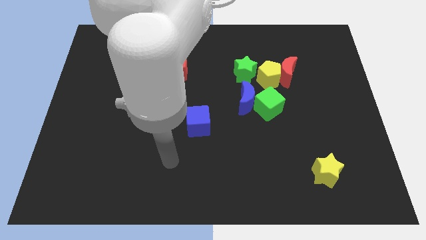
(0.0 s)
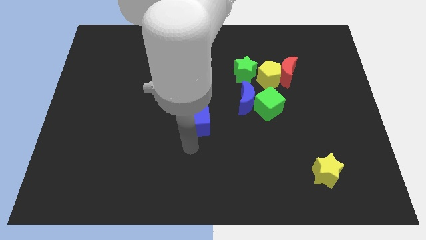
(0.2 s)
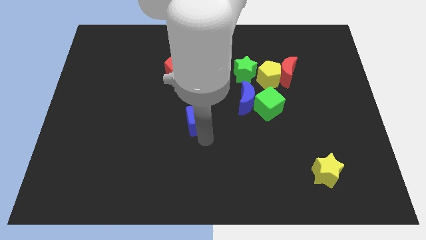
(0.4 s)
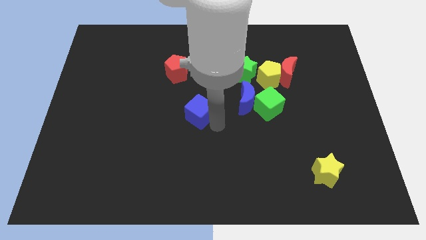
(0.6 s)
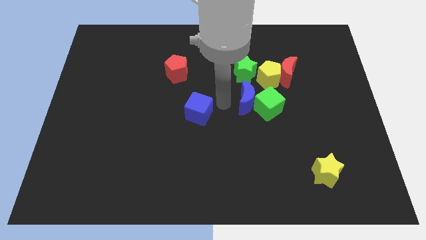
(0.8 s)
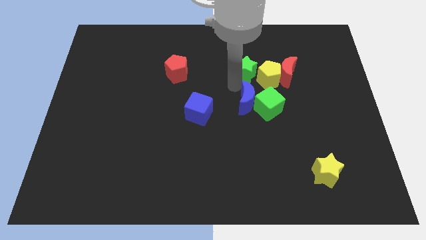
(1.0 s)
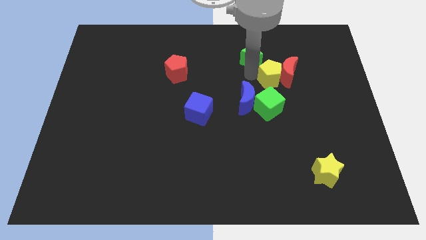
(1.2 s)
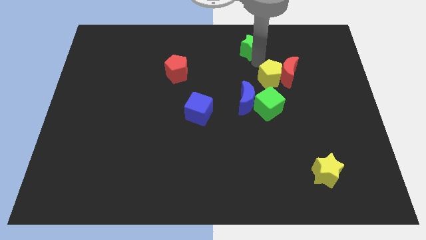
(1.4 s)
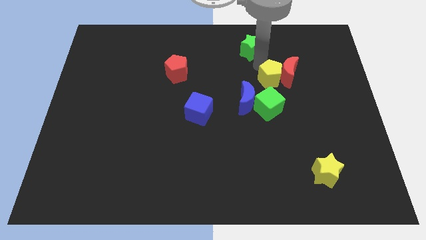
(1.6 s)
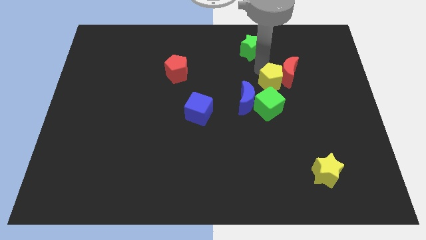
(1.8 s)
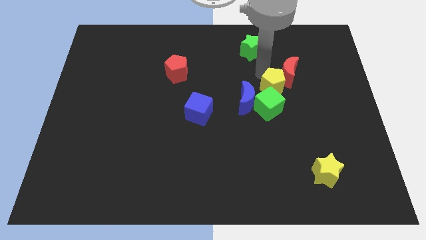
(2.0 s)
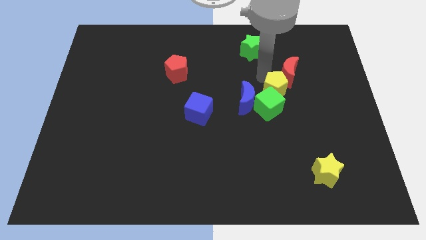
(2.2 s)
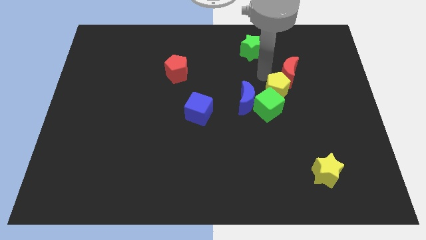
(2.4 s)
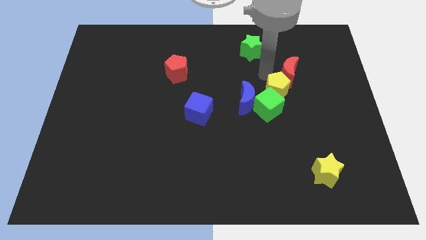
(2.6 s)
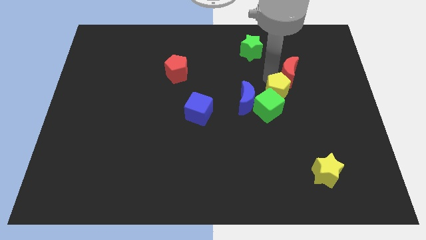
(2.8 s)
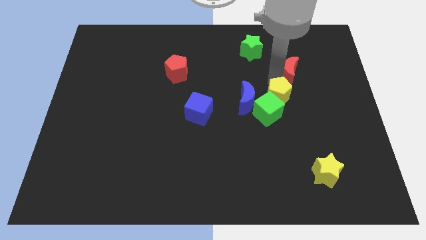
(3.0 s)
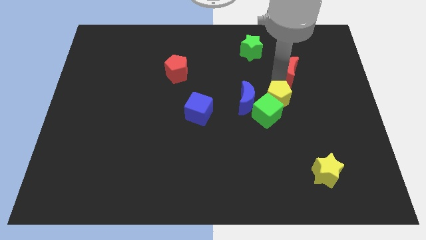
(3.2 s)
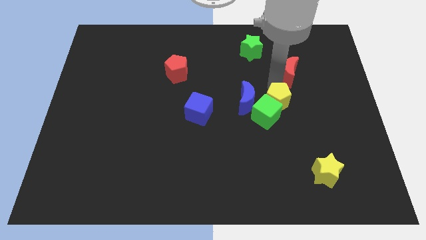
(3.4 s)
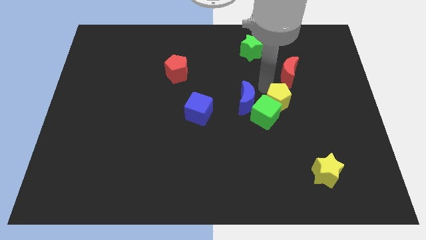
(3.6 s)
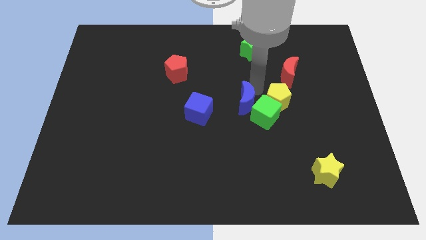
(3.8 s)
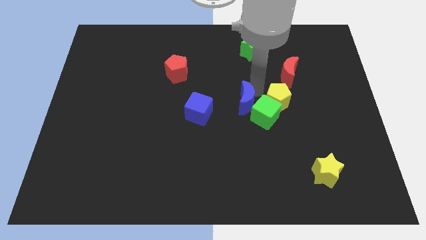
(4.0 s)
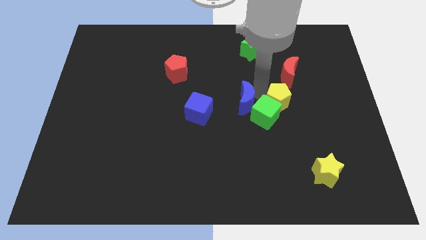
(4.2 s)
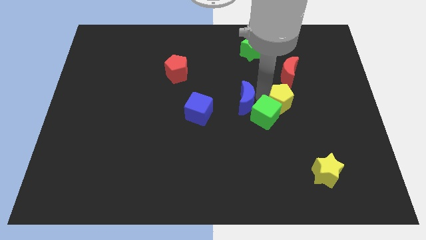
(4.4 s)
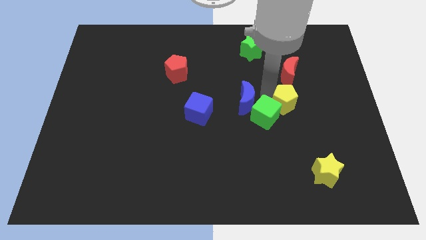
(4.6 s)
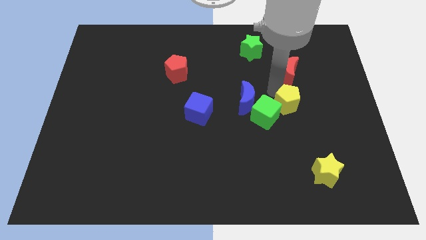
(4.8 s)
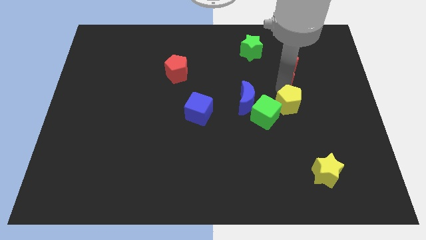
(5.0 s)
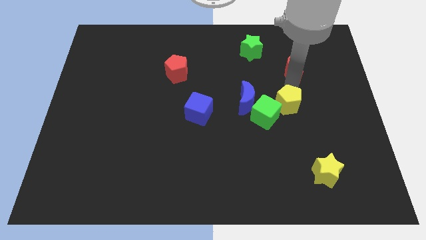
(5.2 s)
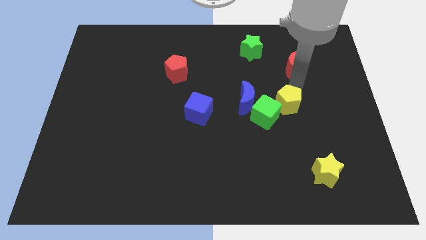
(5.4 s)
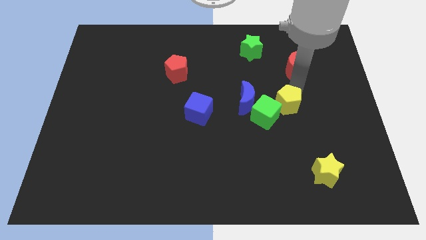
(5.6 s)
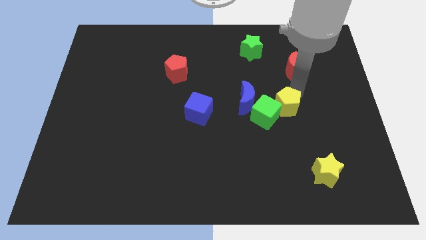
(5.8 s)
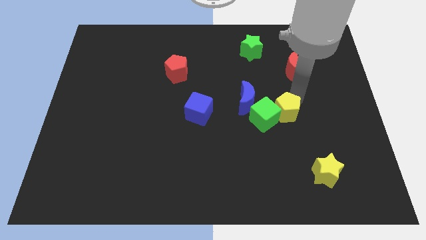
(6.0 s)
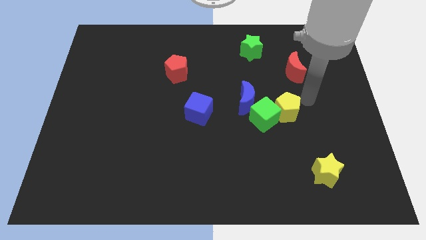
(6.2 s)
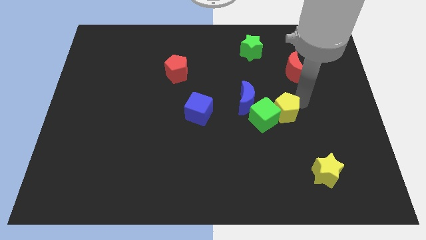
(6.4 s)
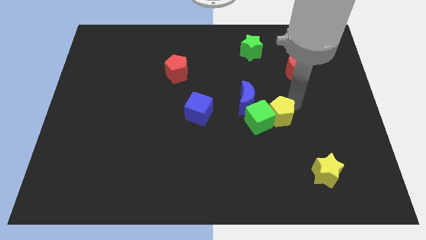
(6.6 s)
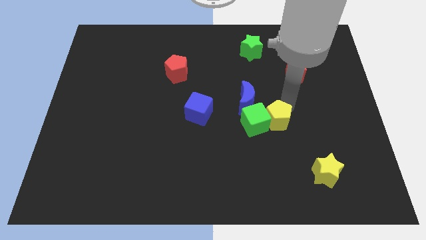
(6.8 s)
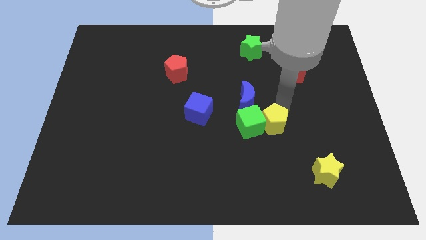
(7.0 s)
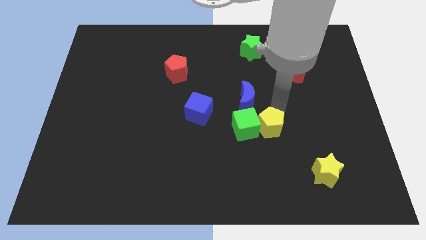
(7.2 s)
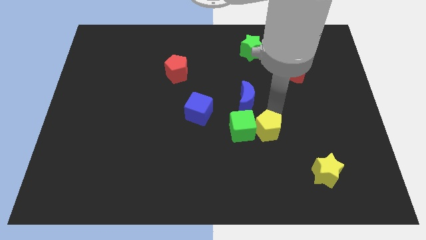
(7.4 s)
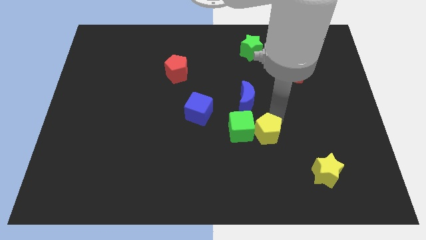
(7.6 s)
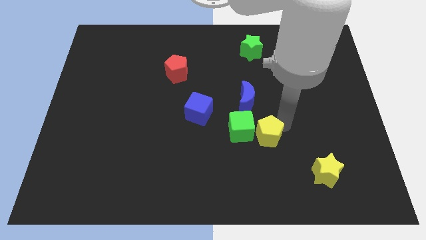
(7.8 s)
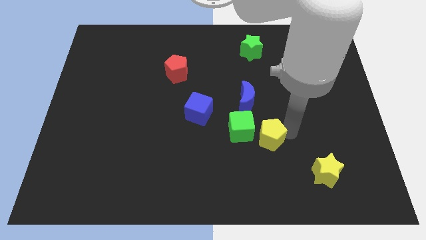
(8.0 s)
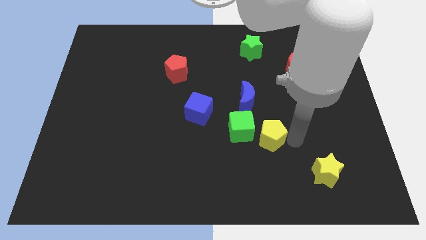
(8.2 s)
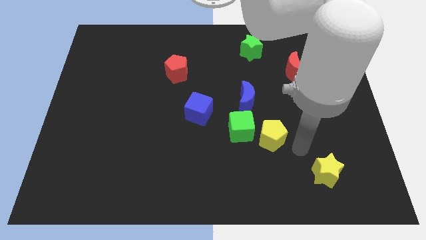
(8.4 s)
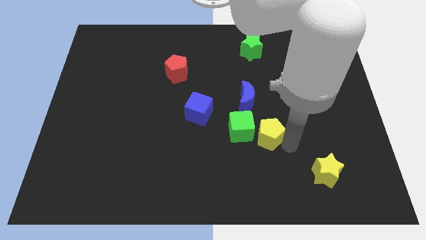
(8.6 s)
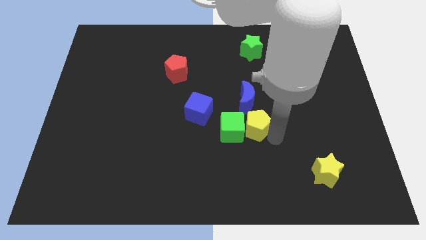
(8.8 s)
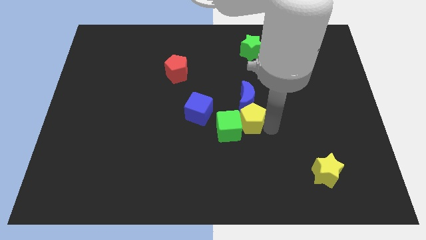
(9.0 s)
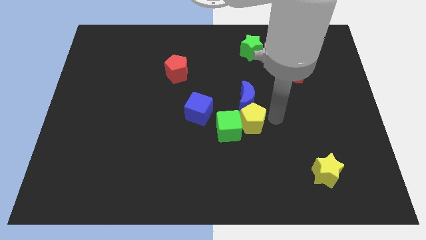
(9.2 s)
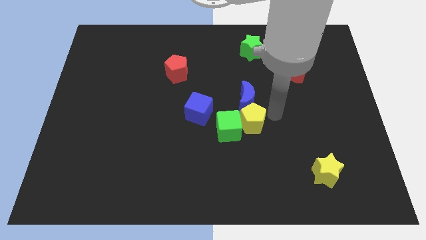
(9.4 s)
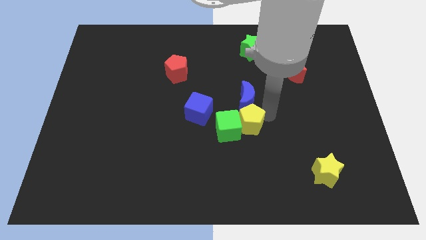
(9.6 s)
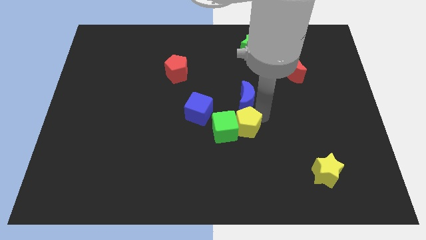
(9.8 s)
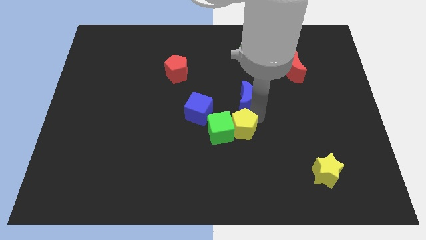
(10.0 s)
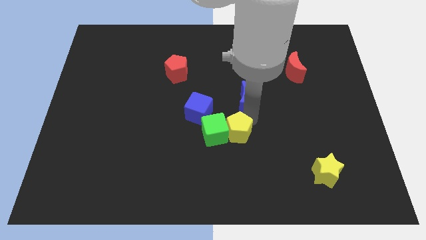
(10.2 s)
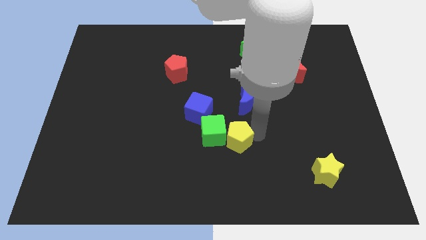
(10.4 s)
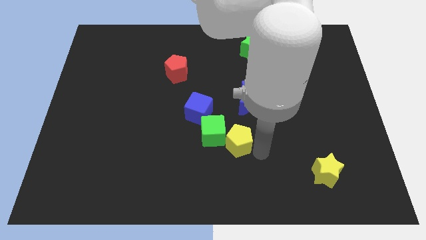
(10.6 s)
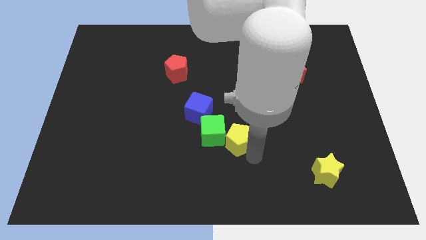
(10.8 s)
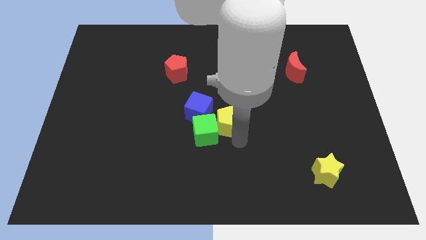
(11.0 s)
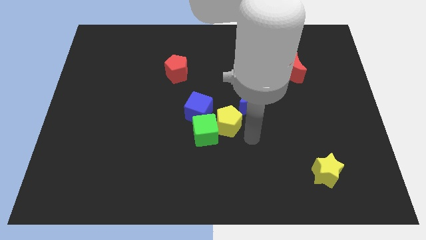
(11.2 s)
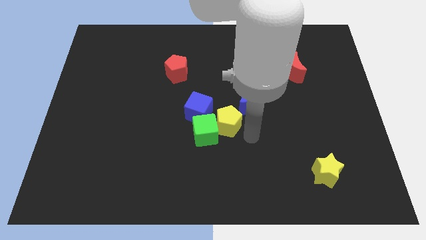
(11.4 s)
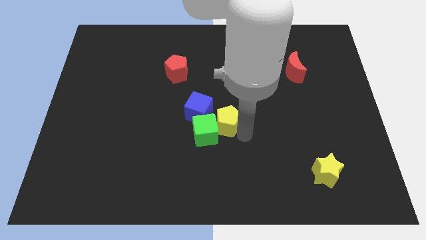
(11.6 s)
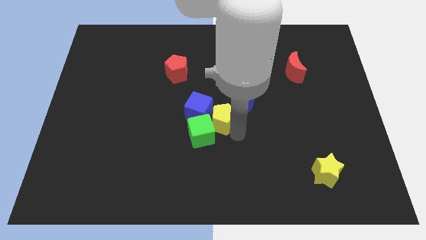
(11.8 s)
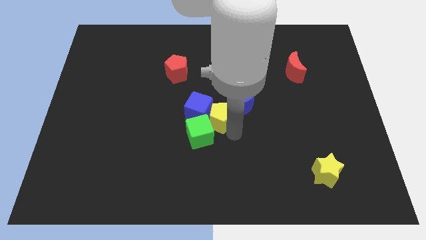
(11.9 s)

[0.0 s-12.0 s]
push the yellow pentagon to the blue cube

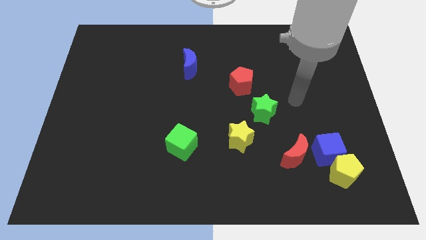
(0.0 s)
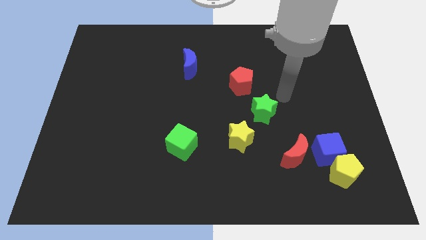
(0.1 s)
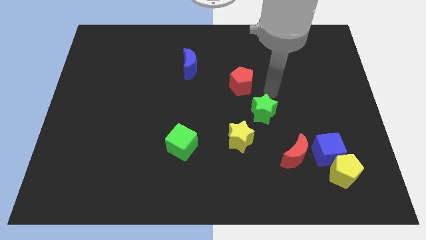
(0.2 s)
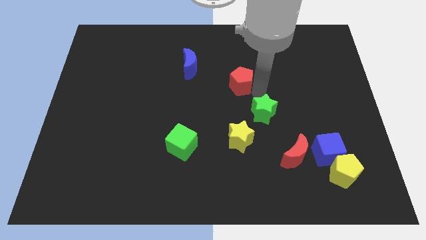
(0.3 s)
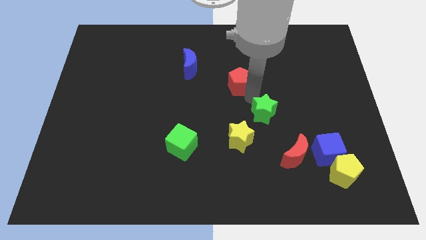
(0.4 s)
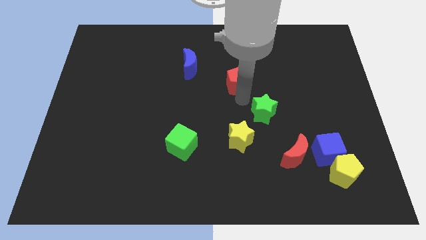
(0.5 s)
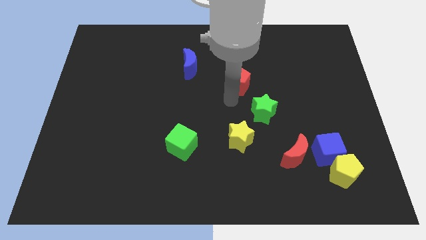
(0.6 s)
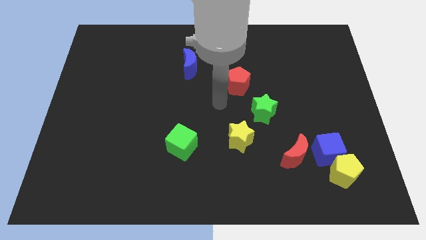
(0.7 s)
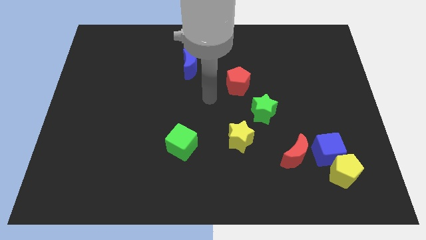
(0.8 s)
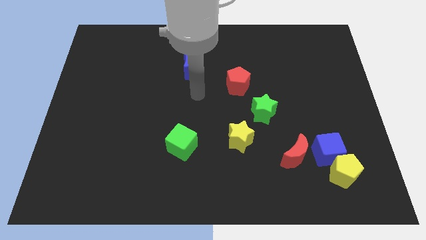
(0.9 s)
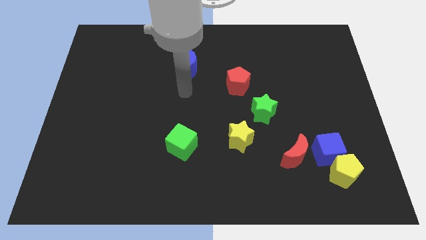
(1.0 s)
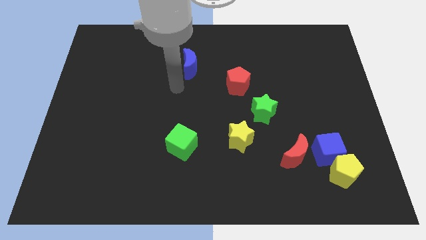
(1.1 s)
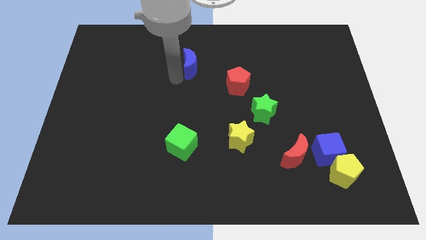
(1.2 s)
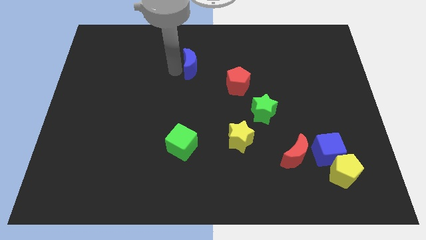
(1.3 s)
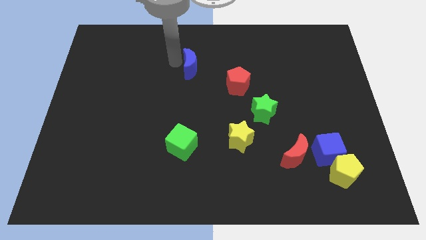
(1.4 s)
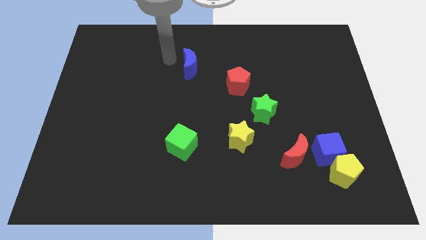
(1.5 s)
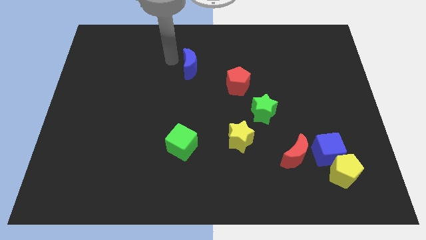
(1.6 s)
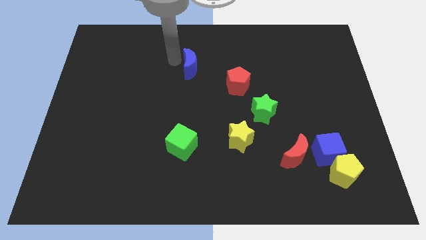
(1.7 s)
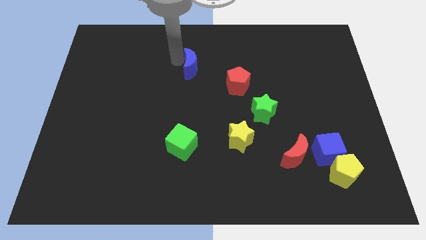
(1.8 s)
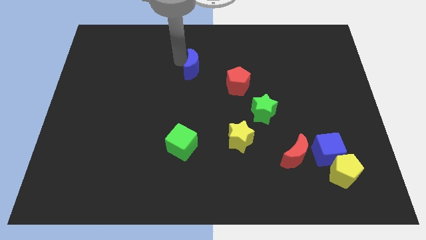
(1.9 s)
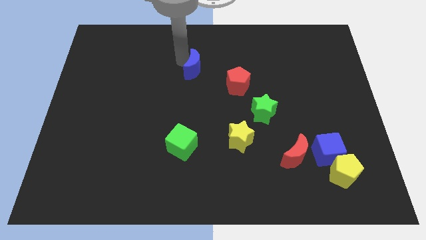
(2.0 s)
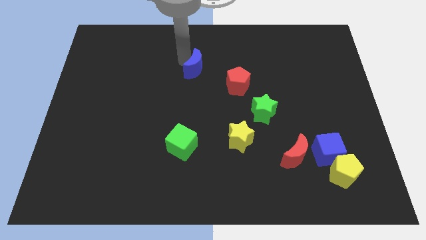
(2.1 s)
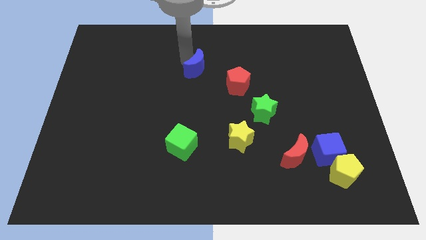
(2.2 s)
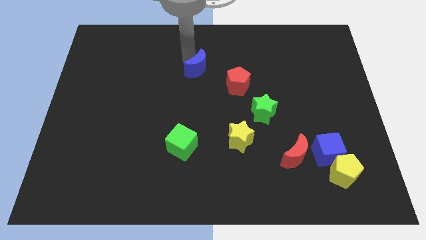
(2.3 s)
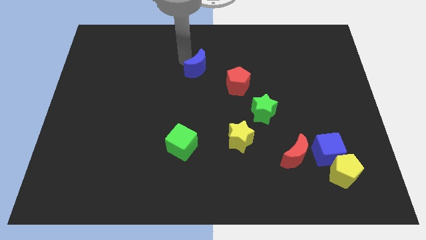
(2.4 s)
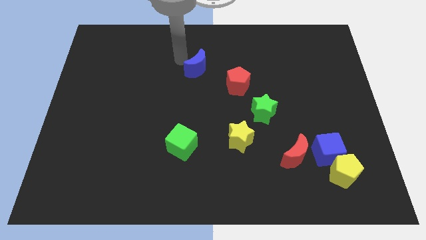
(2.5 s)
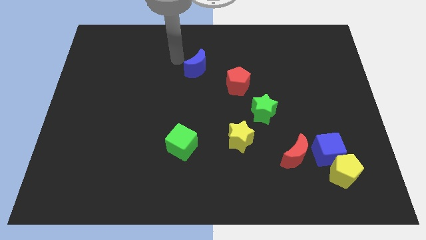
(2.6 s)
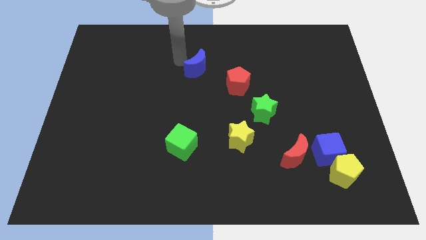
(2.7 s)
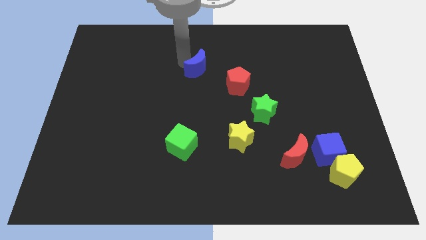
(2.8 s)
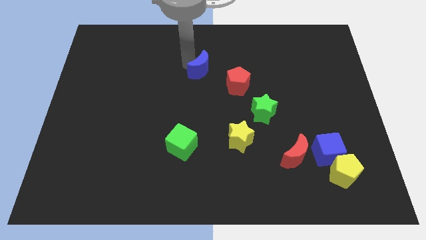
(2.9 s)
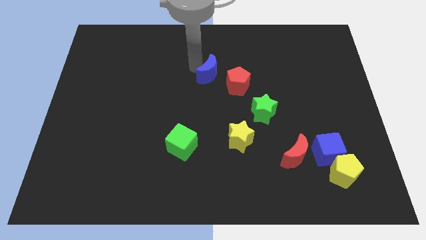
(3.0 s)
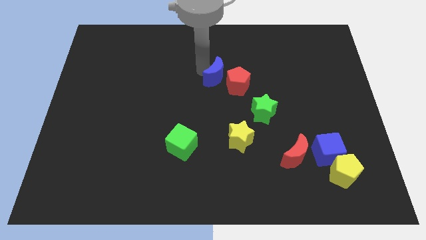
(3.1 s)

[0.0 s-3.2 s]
push the blue moon to the red pentagon
